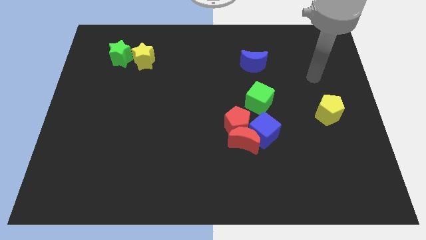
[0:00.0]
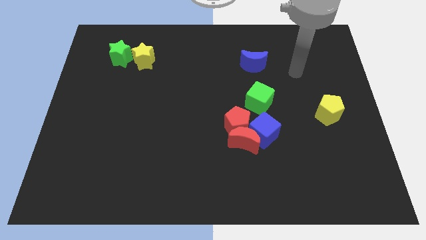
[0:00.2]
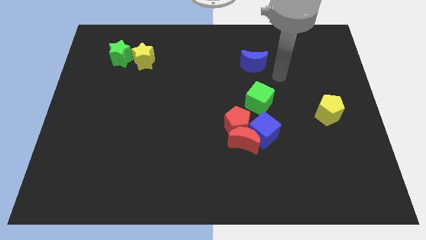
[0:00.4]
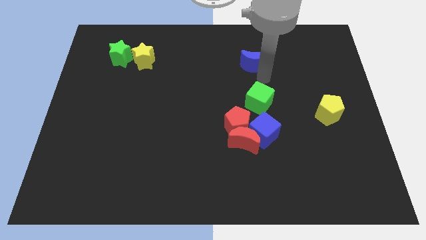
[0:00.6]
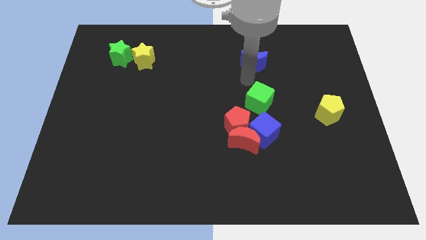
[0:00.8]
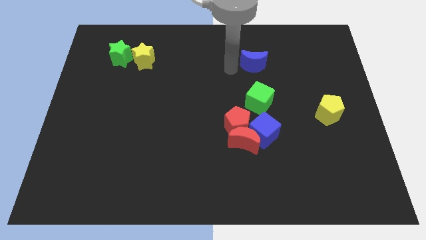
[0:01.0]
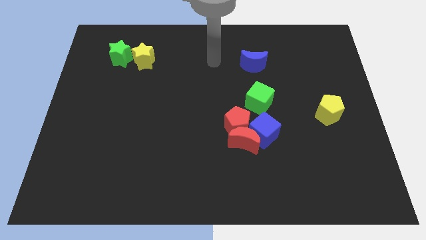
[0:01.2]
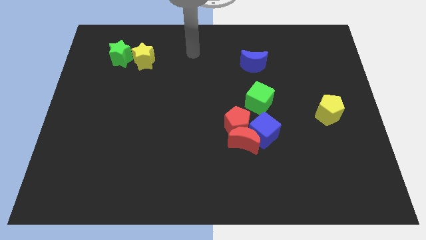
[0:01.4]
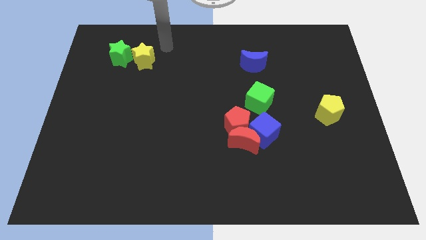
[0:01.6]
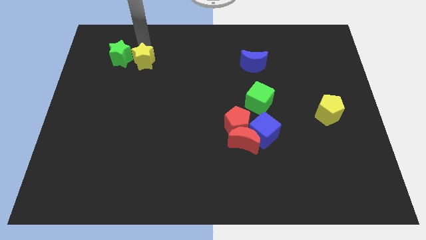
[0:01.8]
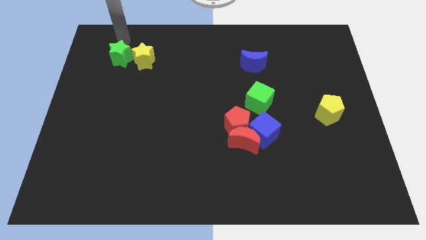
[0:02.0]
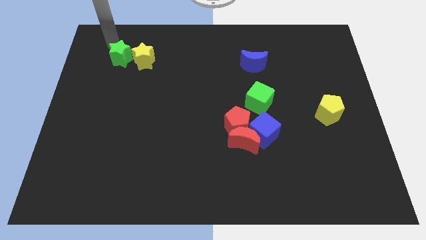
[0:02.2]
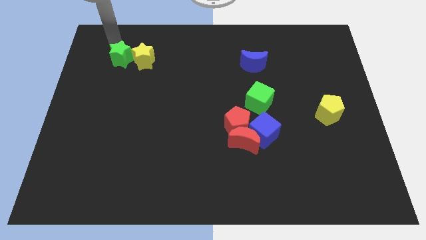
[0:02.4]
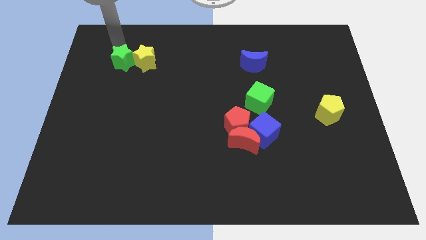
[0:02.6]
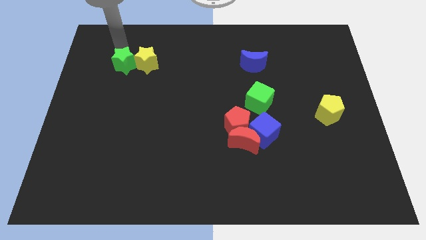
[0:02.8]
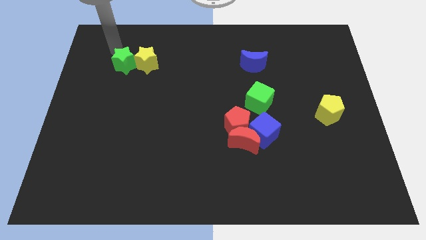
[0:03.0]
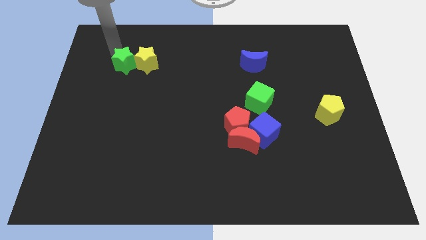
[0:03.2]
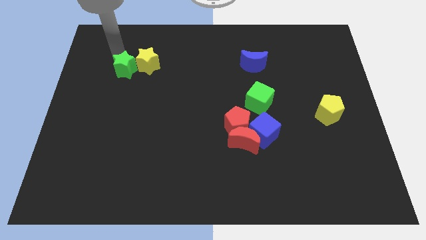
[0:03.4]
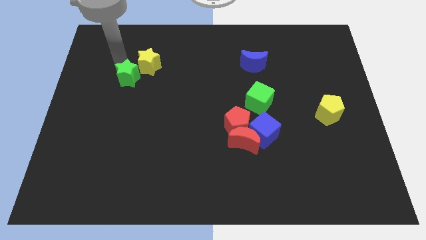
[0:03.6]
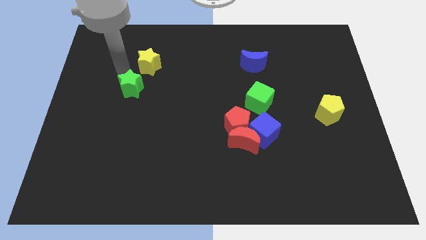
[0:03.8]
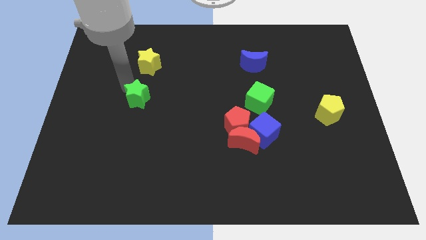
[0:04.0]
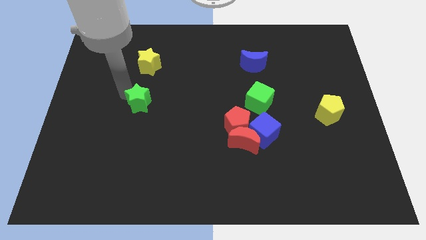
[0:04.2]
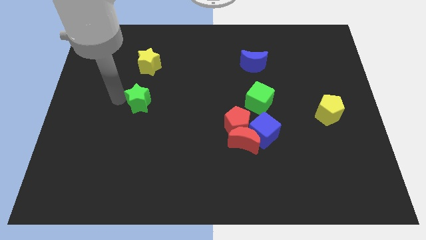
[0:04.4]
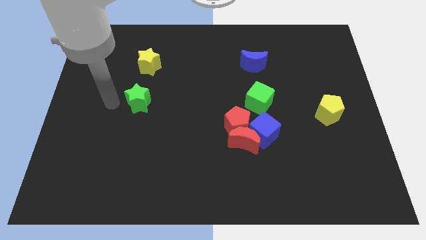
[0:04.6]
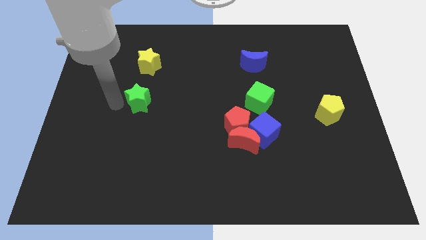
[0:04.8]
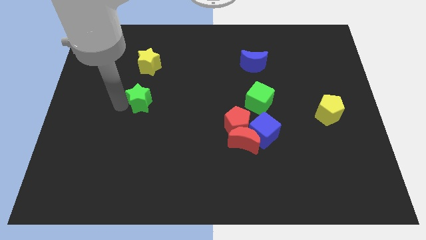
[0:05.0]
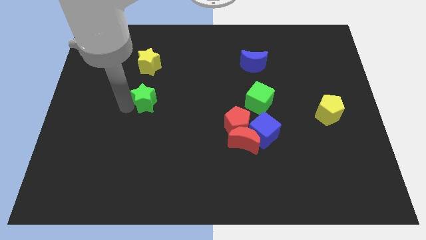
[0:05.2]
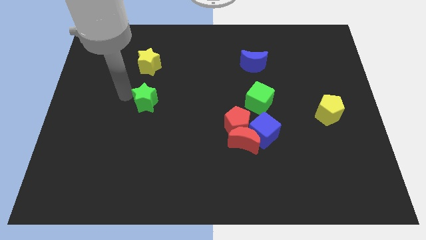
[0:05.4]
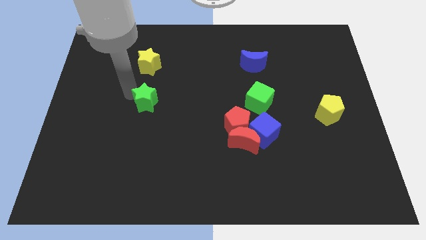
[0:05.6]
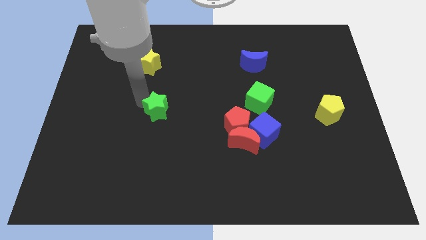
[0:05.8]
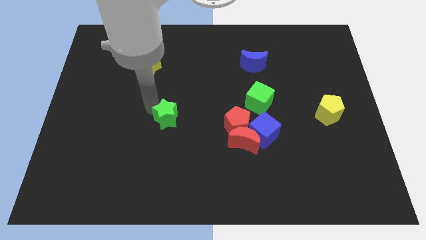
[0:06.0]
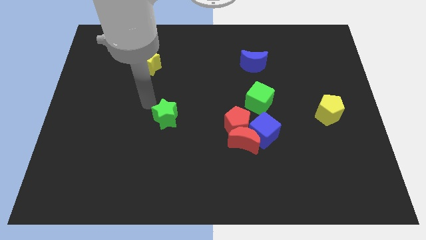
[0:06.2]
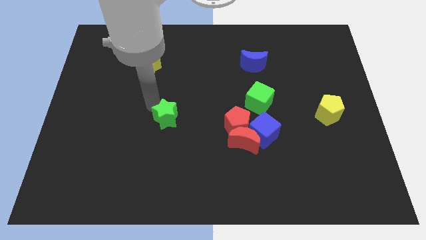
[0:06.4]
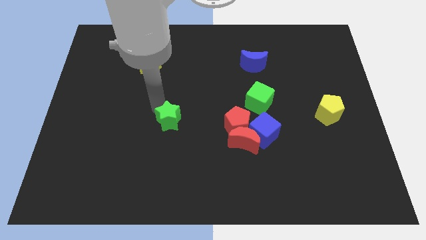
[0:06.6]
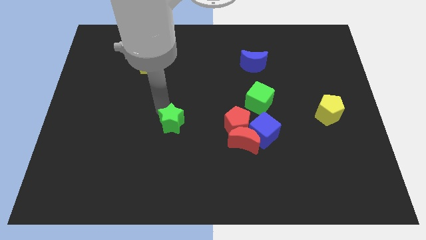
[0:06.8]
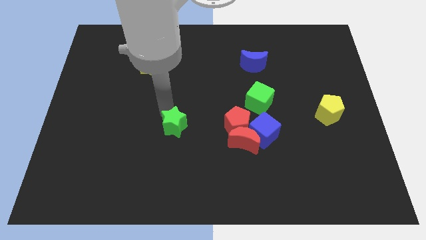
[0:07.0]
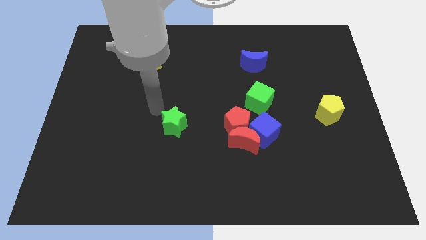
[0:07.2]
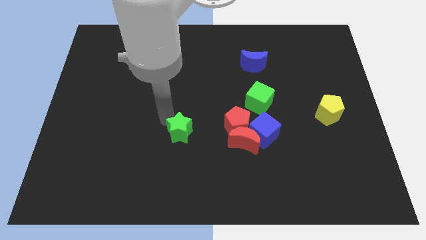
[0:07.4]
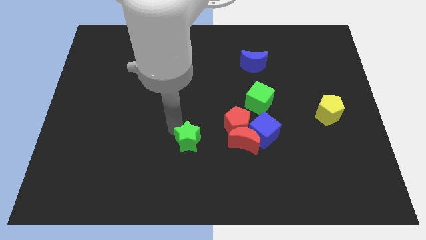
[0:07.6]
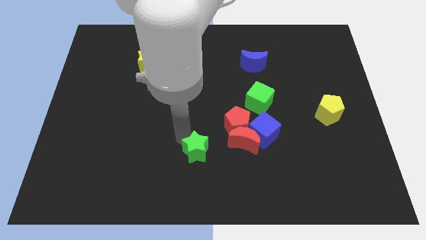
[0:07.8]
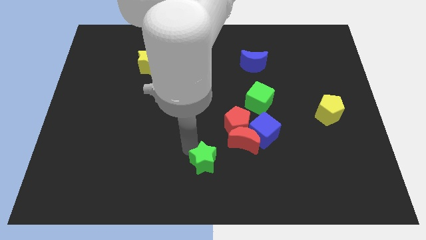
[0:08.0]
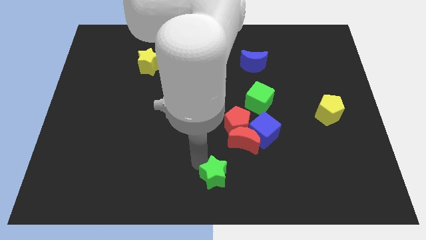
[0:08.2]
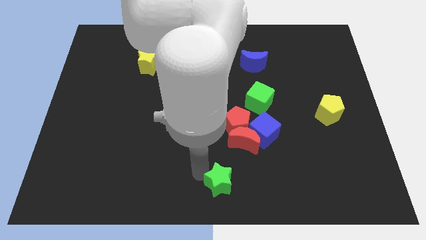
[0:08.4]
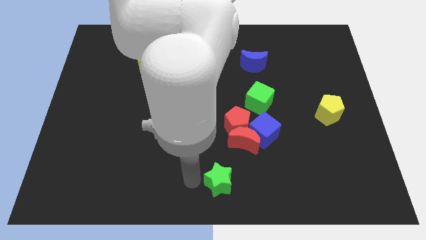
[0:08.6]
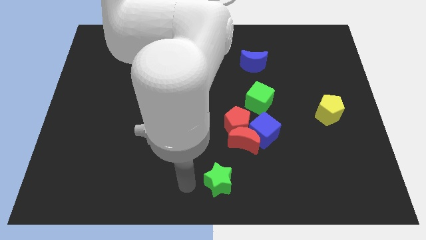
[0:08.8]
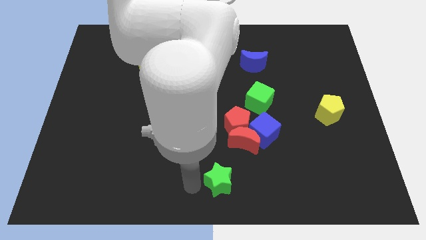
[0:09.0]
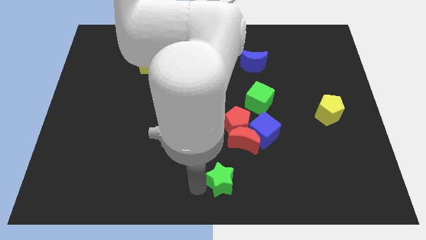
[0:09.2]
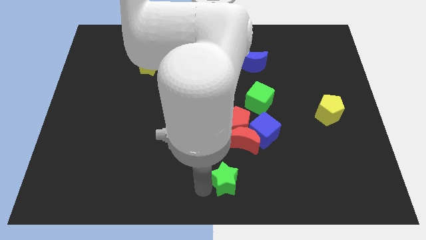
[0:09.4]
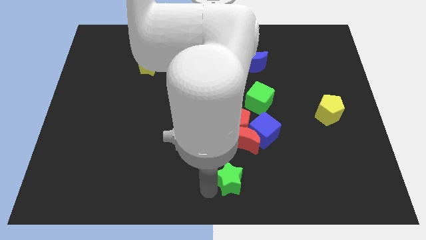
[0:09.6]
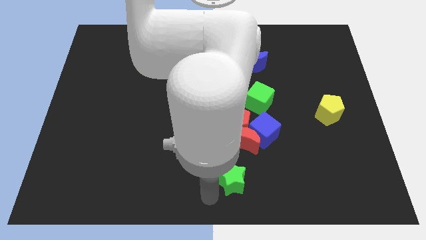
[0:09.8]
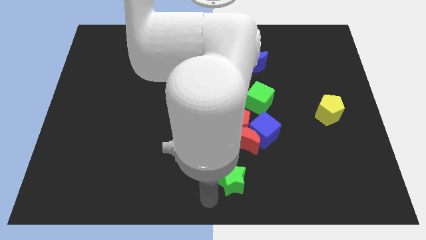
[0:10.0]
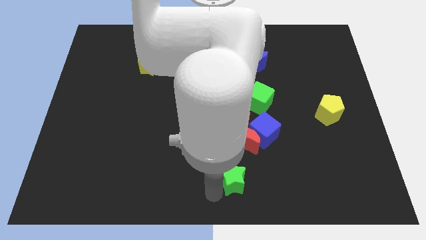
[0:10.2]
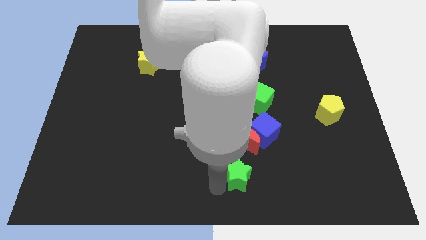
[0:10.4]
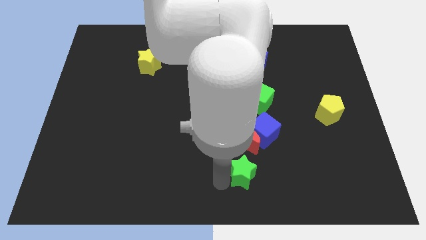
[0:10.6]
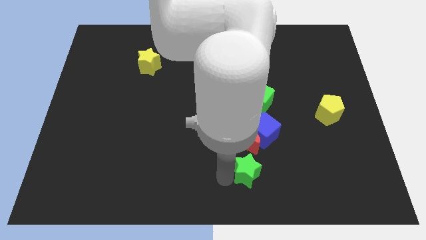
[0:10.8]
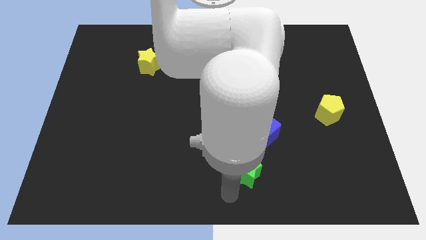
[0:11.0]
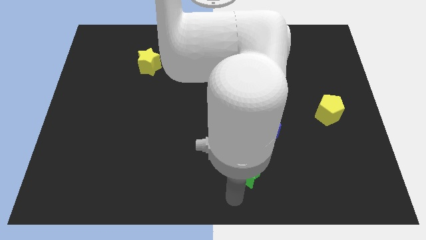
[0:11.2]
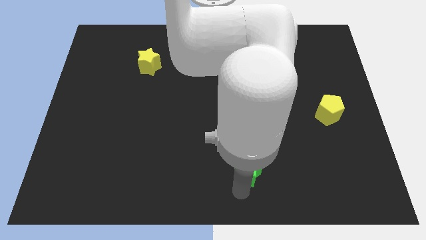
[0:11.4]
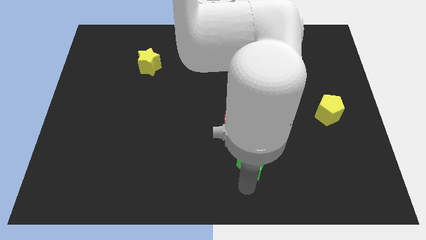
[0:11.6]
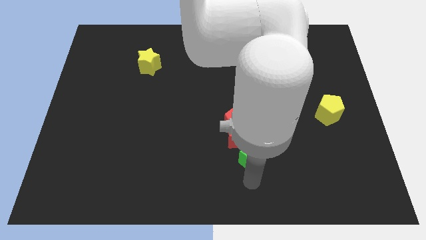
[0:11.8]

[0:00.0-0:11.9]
slide the green star diagonally down and to the right of the red pentagon

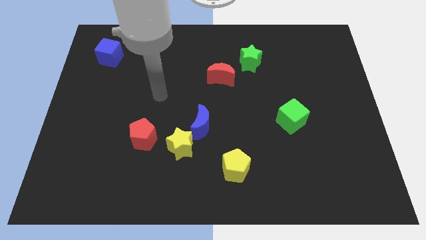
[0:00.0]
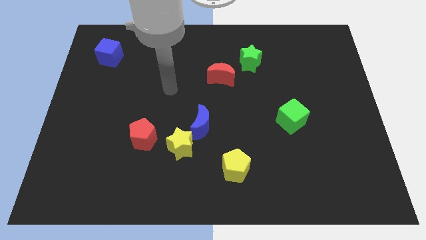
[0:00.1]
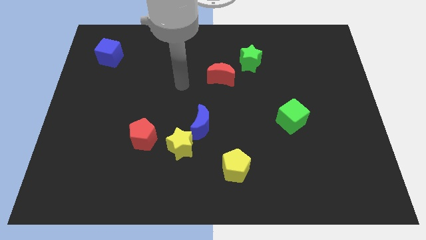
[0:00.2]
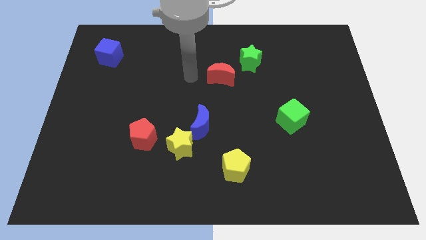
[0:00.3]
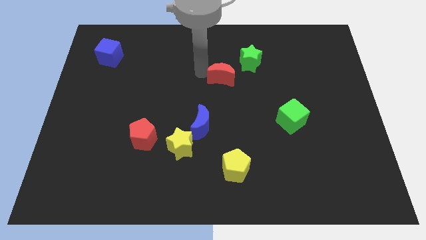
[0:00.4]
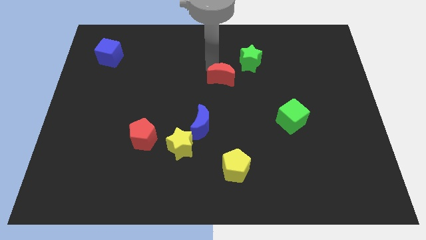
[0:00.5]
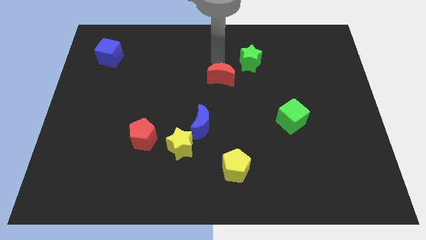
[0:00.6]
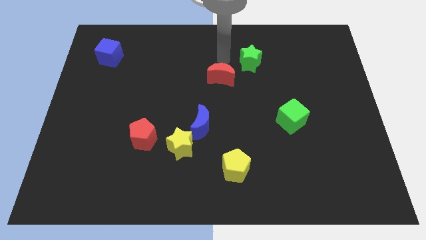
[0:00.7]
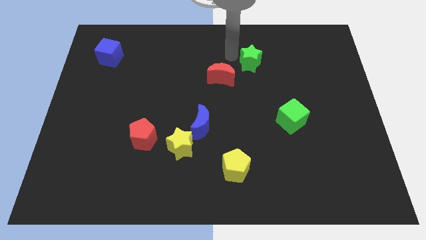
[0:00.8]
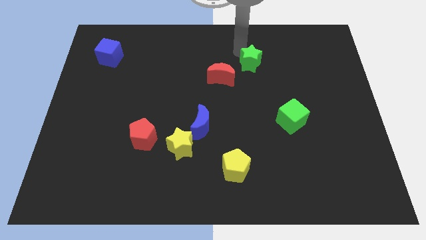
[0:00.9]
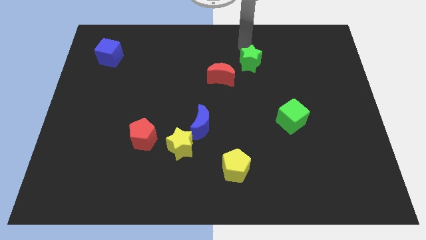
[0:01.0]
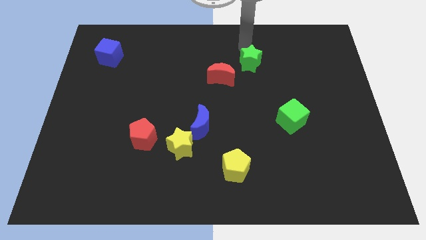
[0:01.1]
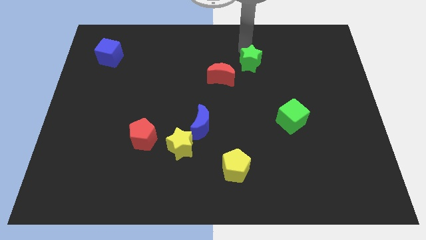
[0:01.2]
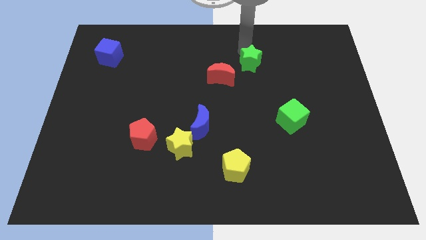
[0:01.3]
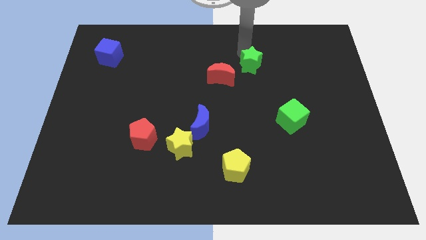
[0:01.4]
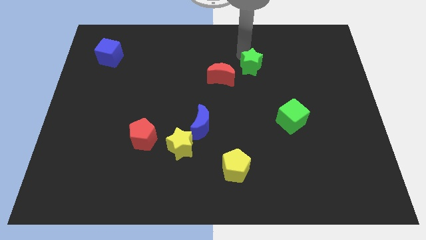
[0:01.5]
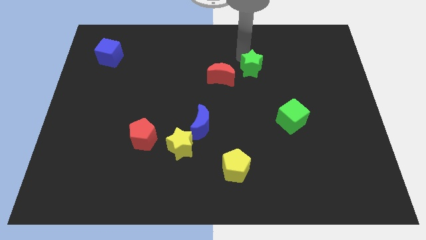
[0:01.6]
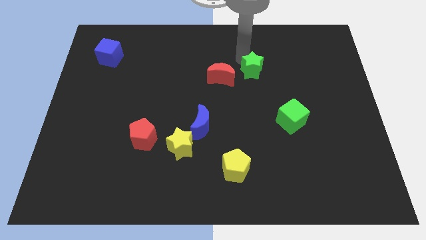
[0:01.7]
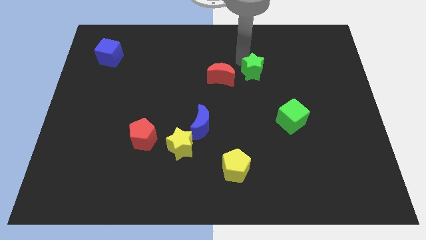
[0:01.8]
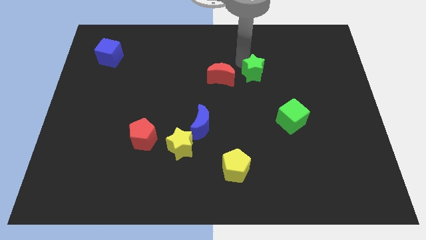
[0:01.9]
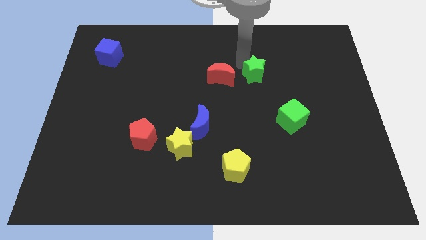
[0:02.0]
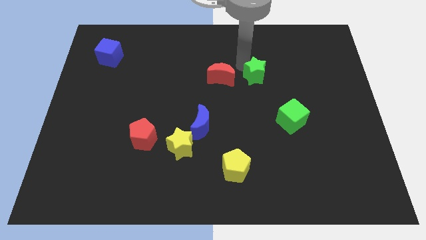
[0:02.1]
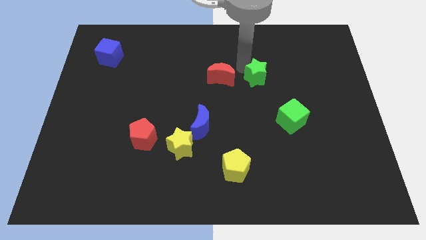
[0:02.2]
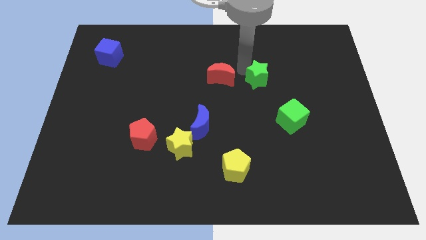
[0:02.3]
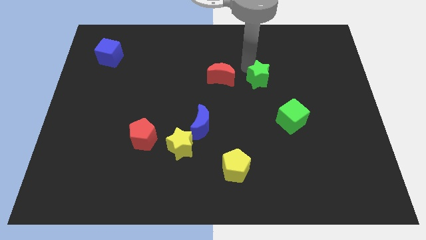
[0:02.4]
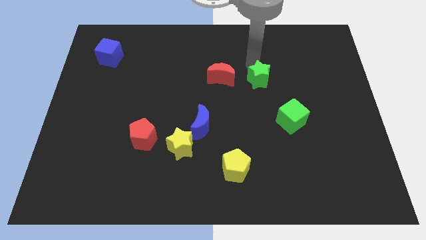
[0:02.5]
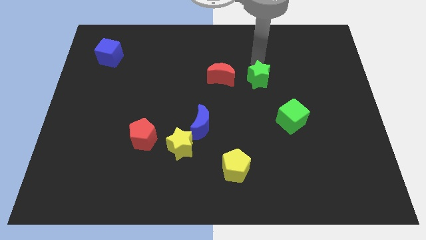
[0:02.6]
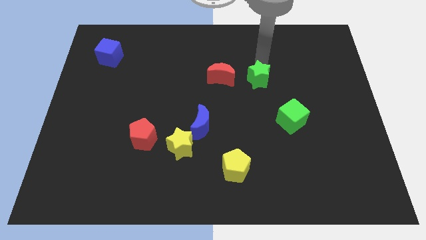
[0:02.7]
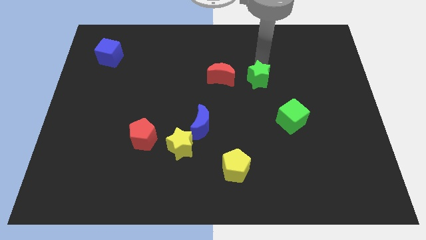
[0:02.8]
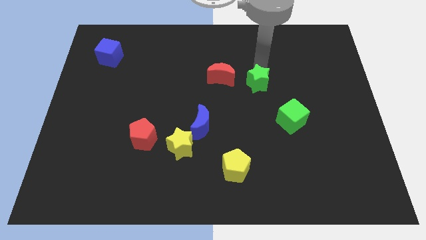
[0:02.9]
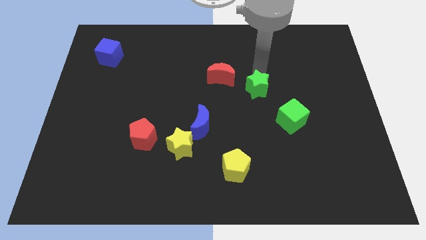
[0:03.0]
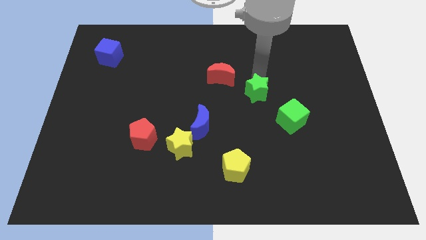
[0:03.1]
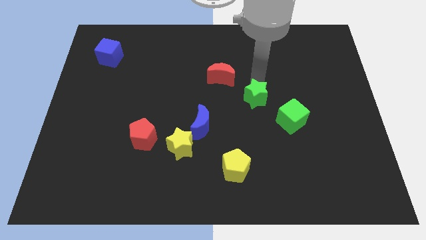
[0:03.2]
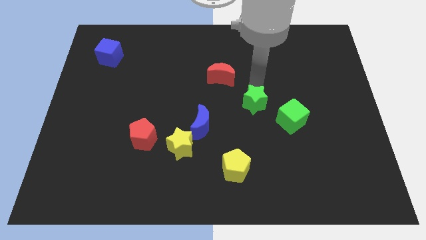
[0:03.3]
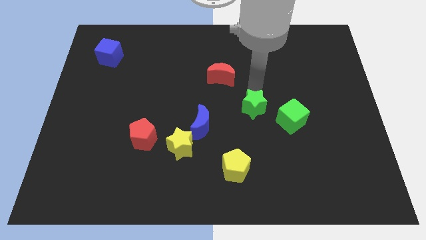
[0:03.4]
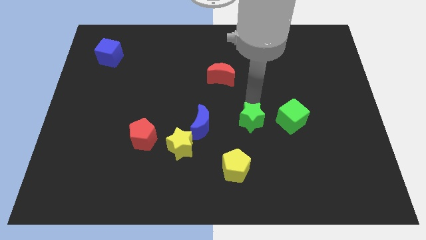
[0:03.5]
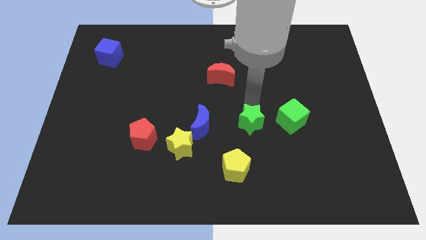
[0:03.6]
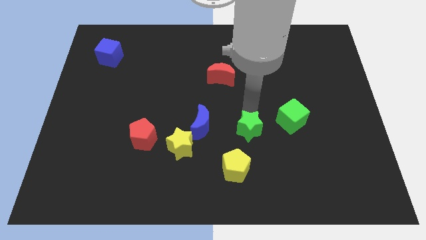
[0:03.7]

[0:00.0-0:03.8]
move the green star to the top right of the yellow pentagon
